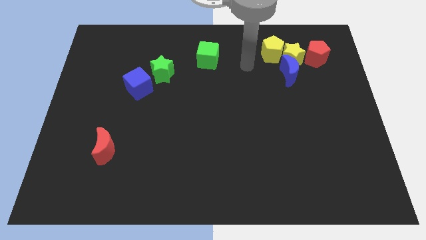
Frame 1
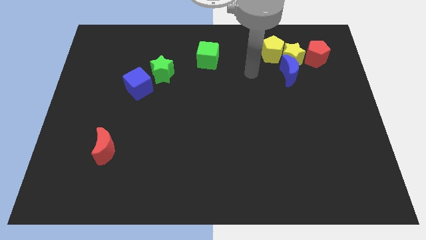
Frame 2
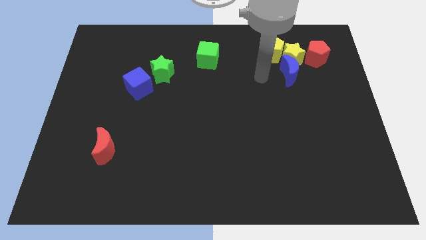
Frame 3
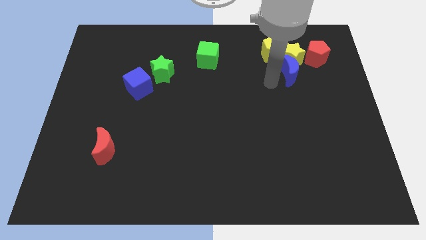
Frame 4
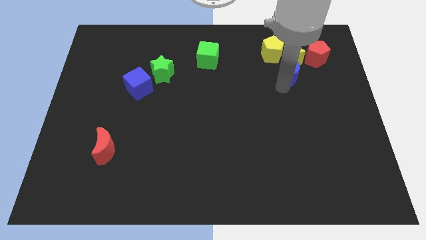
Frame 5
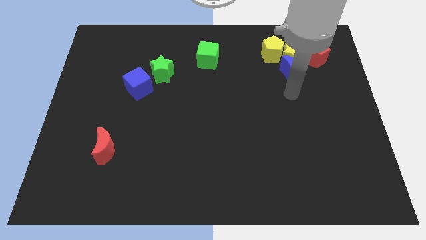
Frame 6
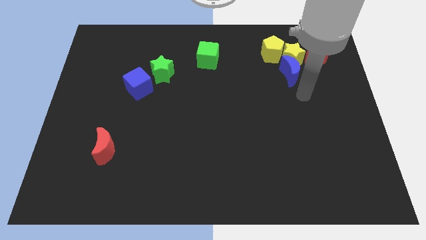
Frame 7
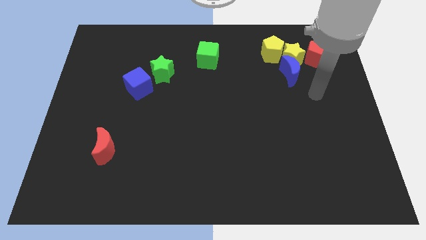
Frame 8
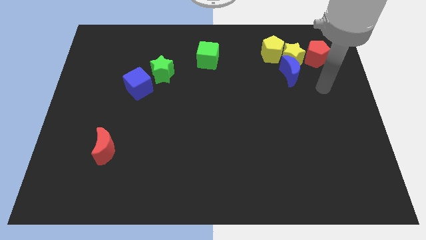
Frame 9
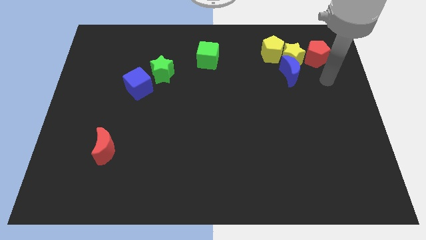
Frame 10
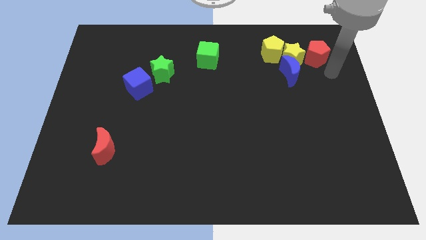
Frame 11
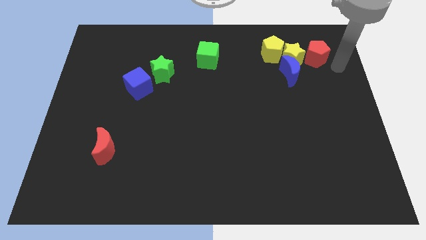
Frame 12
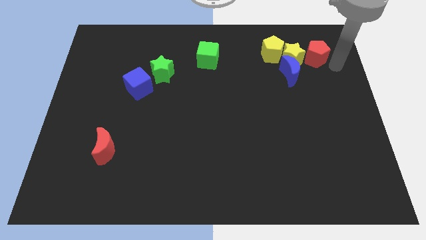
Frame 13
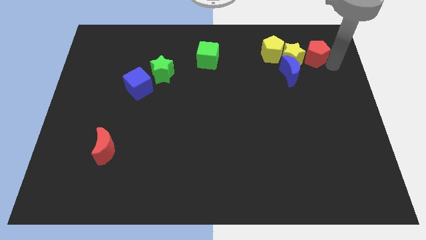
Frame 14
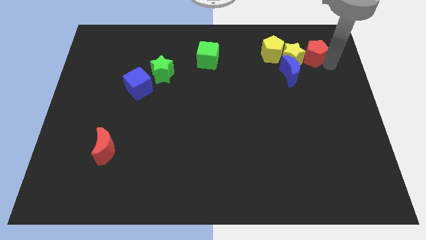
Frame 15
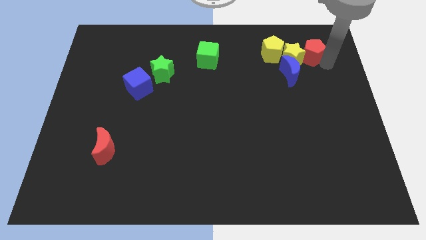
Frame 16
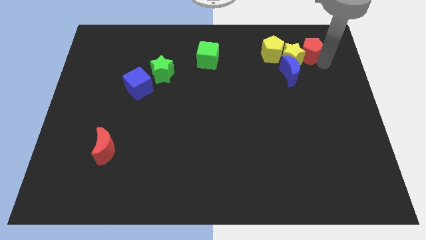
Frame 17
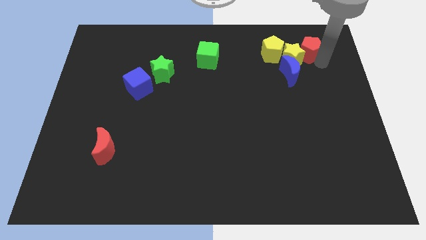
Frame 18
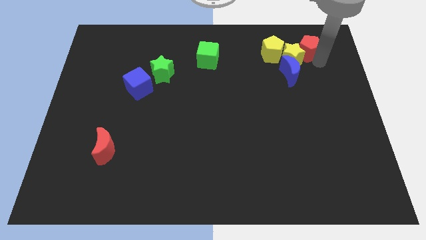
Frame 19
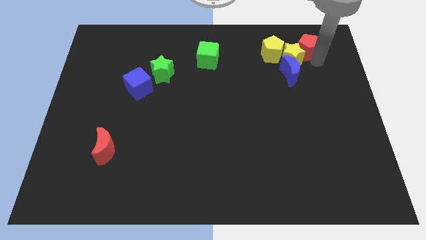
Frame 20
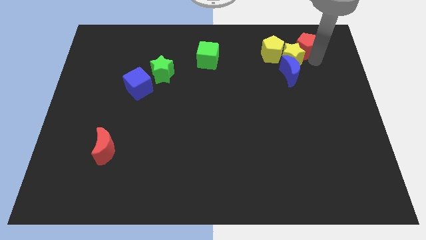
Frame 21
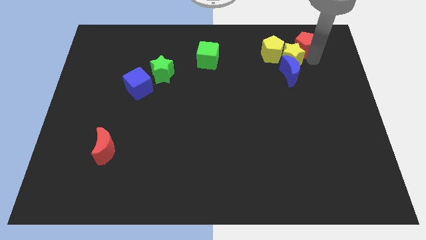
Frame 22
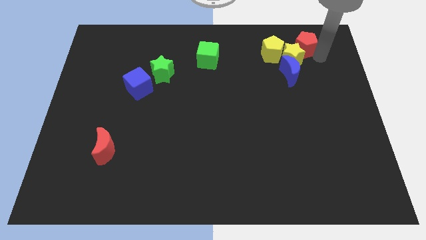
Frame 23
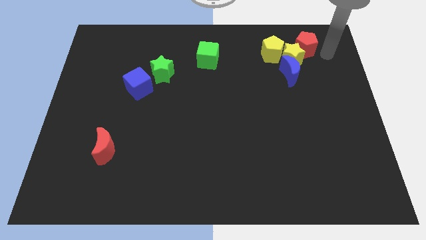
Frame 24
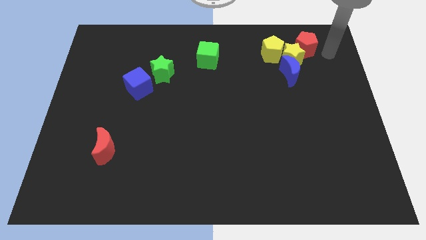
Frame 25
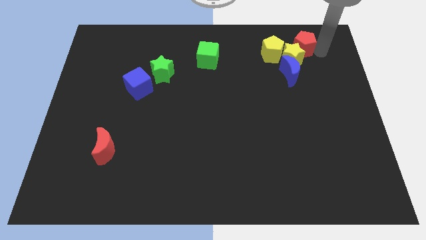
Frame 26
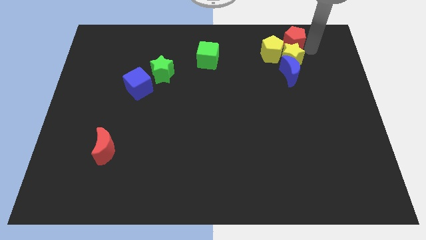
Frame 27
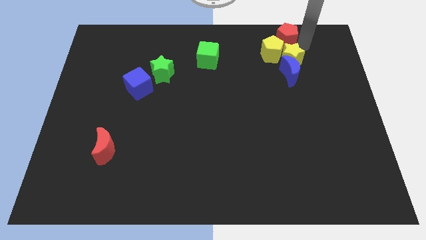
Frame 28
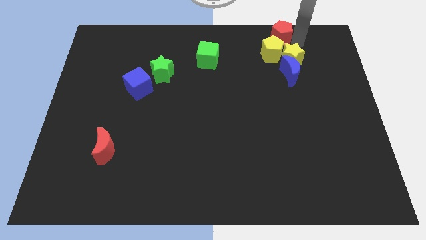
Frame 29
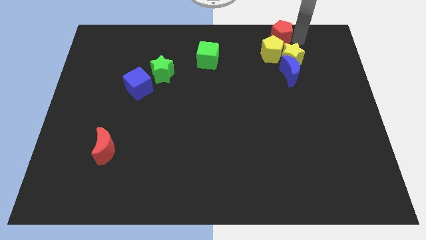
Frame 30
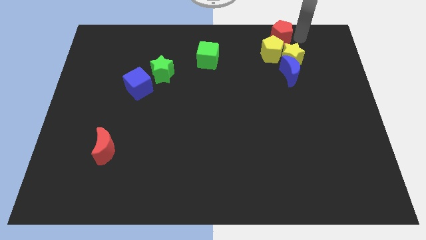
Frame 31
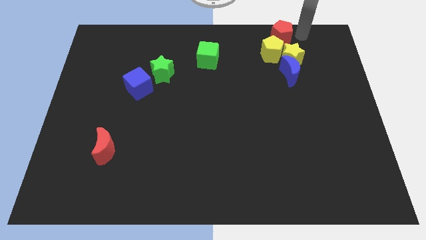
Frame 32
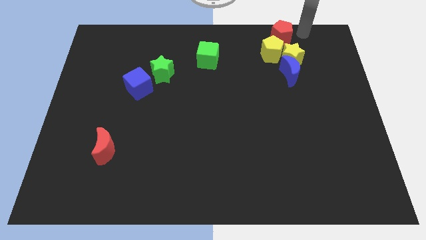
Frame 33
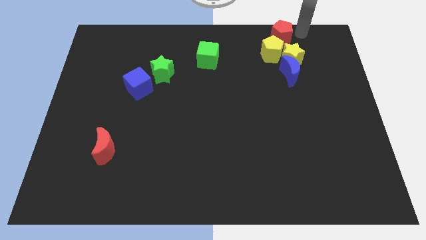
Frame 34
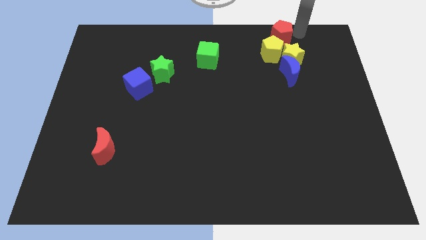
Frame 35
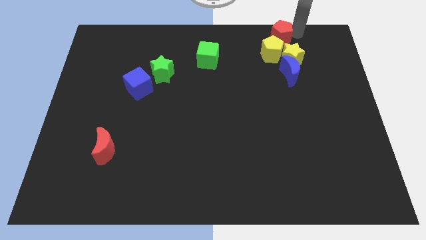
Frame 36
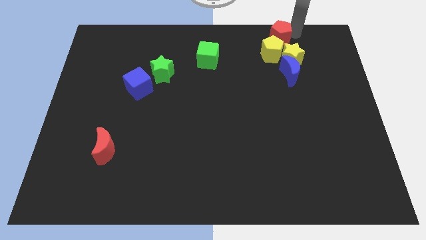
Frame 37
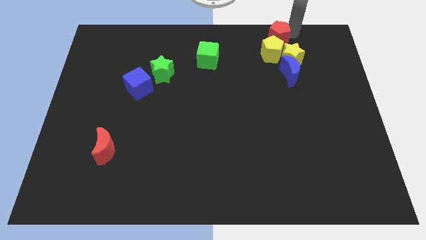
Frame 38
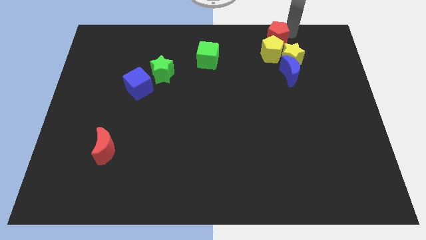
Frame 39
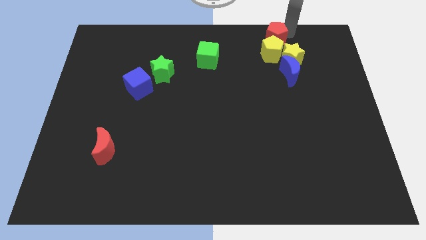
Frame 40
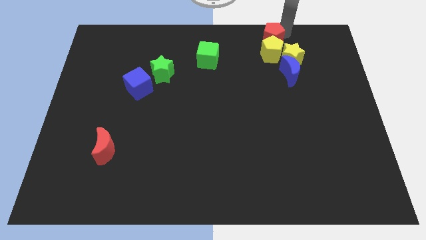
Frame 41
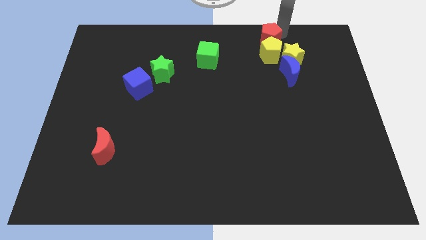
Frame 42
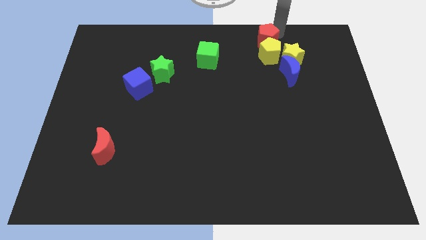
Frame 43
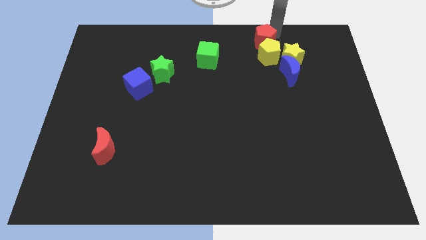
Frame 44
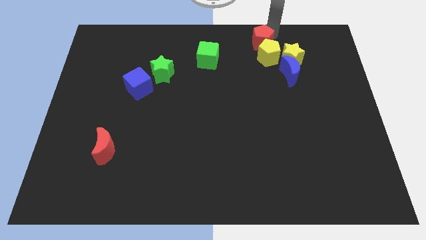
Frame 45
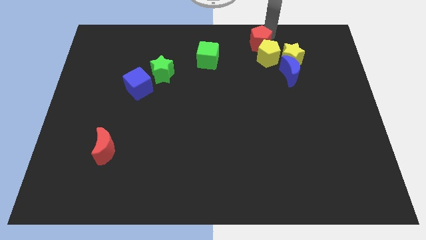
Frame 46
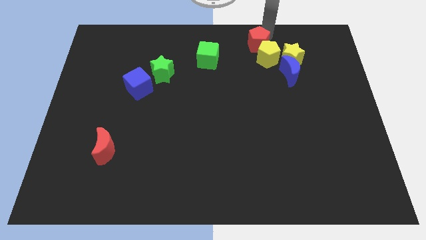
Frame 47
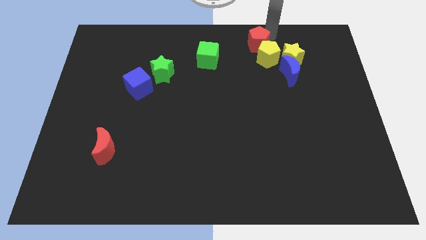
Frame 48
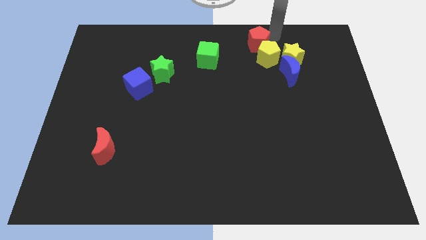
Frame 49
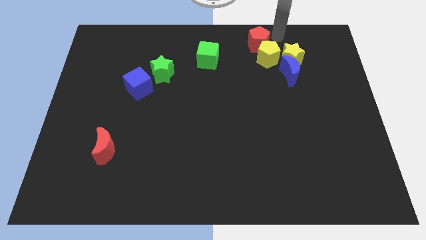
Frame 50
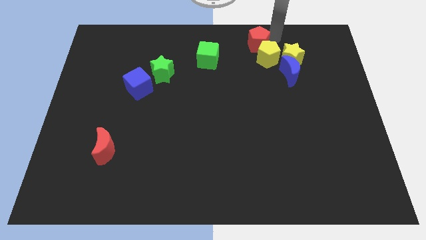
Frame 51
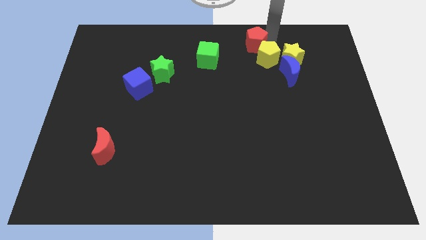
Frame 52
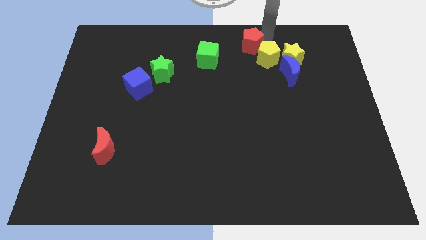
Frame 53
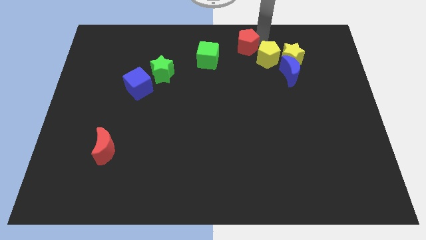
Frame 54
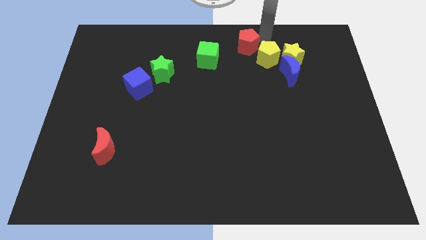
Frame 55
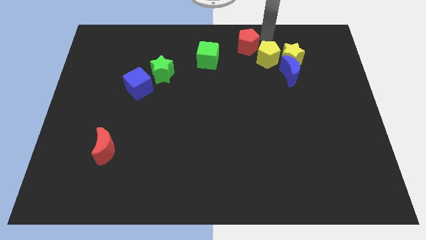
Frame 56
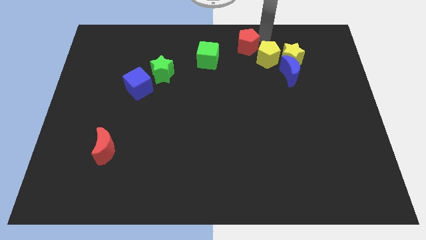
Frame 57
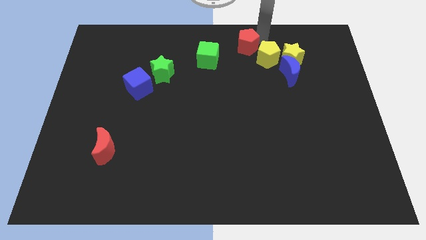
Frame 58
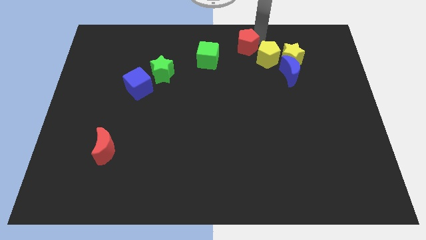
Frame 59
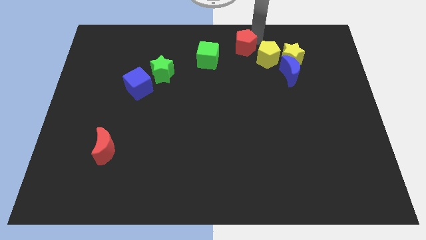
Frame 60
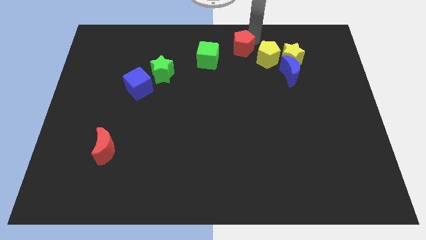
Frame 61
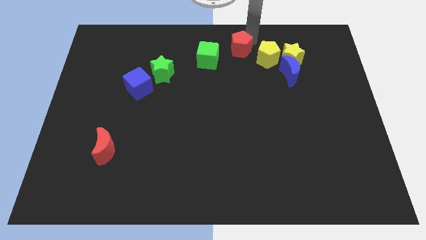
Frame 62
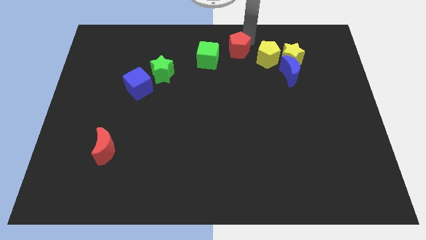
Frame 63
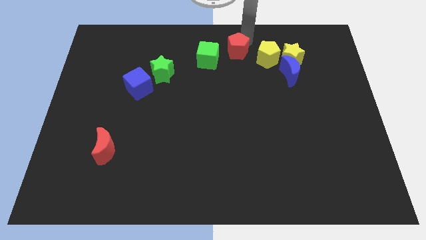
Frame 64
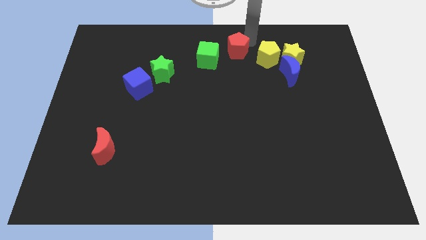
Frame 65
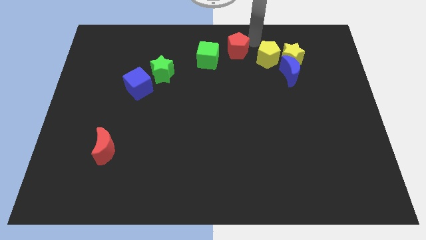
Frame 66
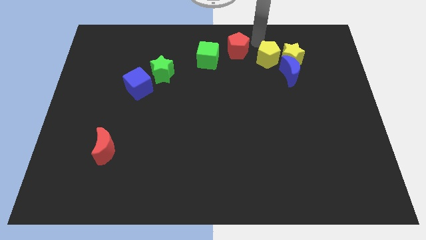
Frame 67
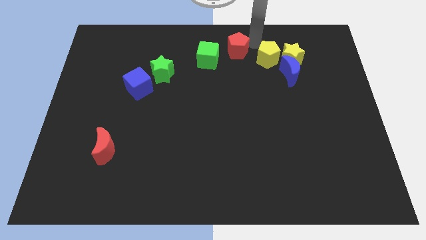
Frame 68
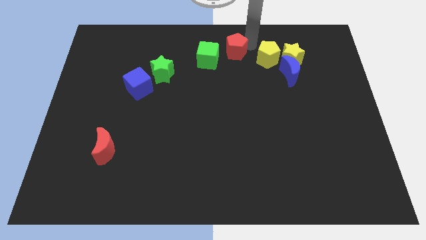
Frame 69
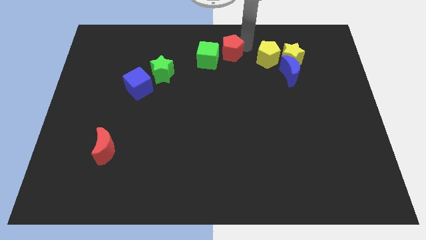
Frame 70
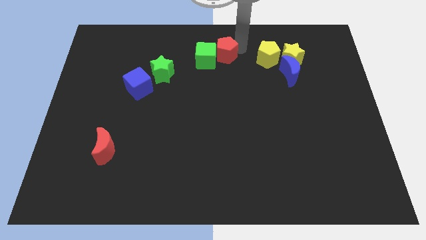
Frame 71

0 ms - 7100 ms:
push the red pentagon close to the green cube

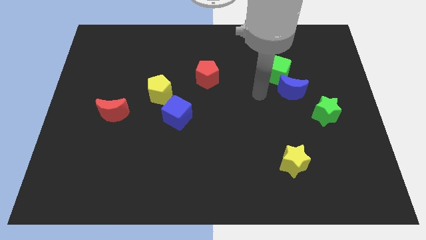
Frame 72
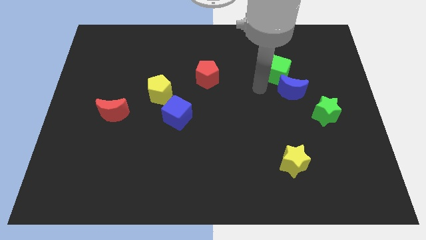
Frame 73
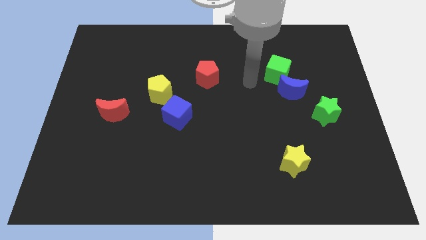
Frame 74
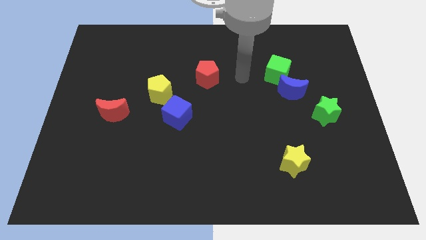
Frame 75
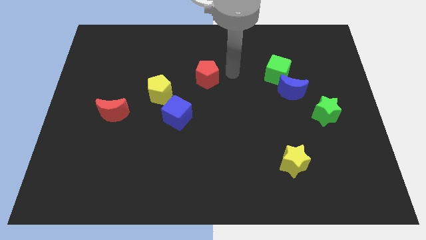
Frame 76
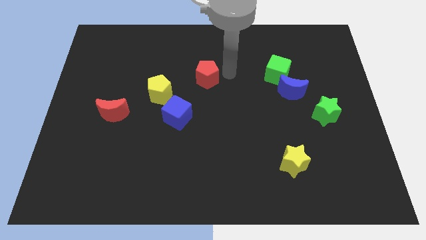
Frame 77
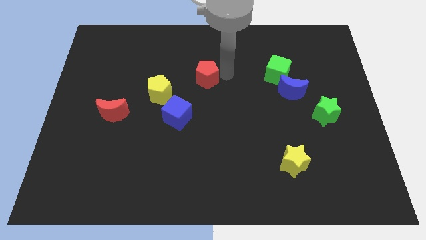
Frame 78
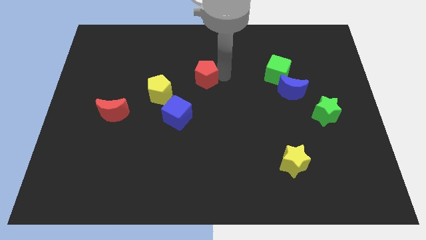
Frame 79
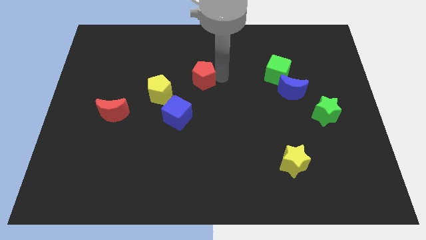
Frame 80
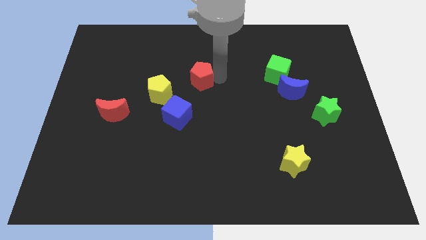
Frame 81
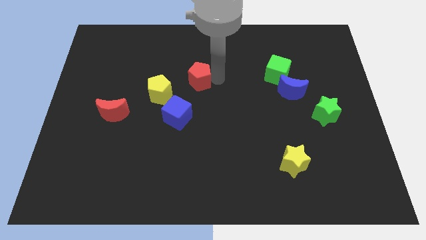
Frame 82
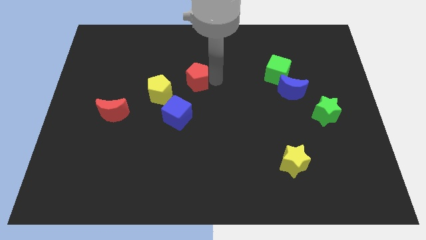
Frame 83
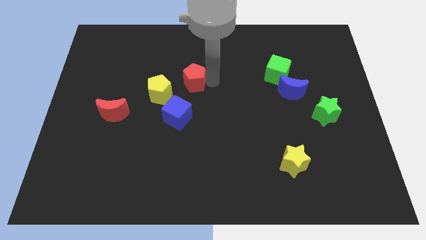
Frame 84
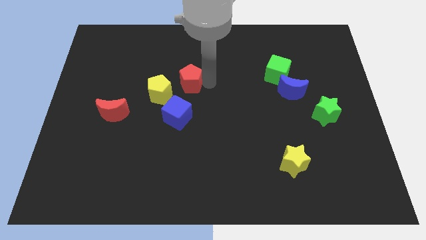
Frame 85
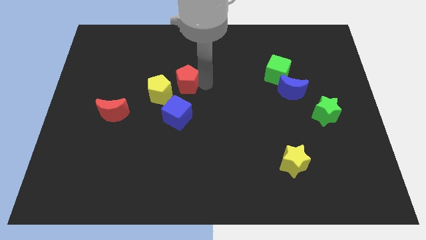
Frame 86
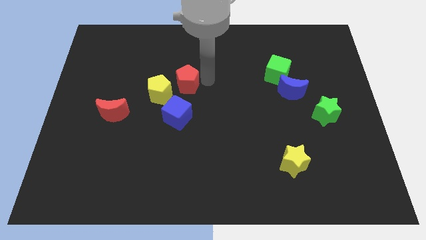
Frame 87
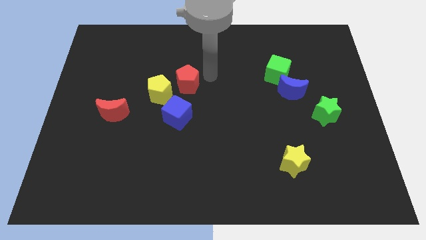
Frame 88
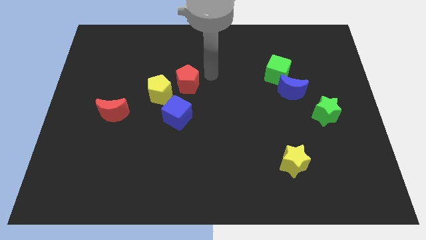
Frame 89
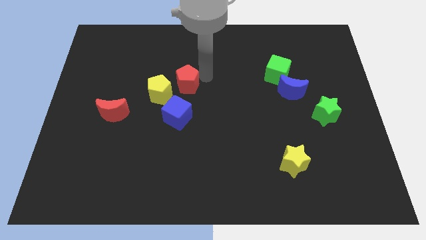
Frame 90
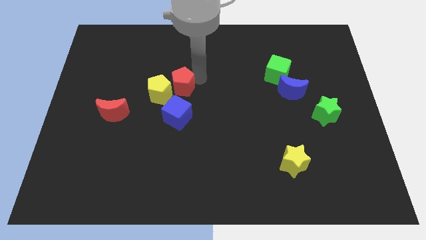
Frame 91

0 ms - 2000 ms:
move the red pentagon next to the yellow pentagon
